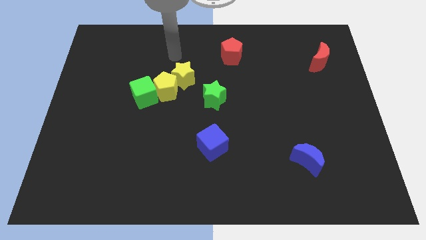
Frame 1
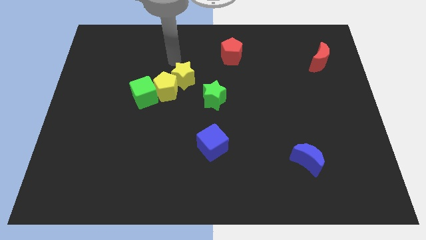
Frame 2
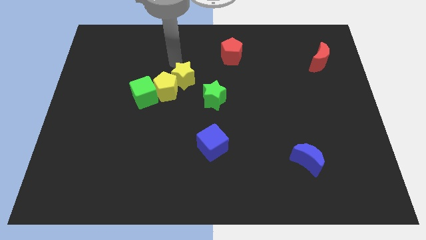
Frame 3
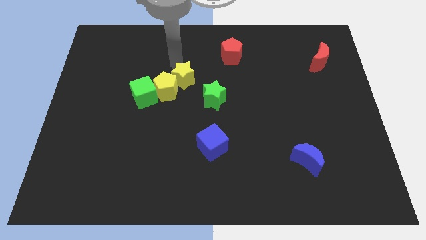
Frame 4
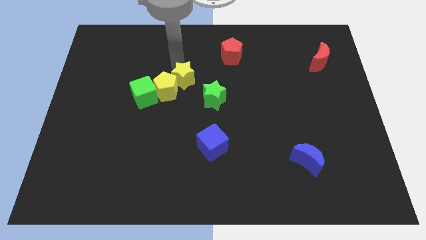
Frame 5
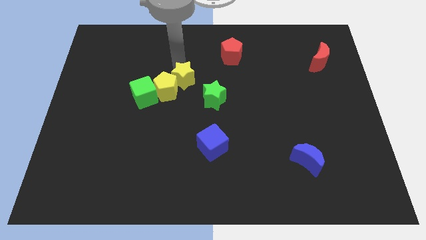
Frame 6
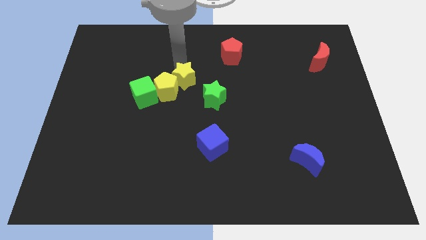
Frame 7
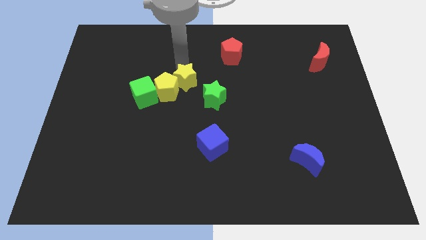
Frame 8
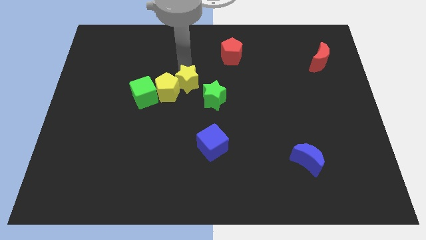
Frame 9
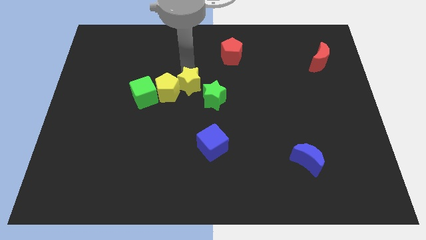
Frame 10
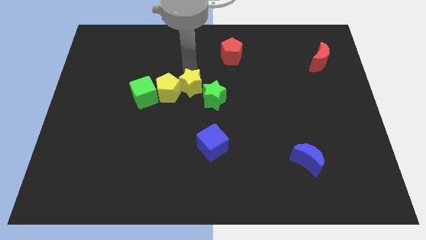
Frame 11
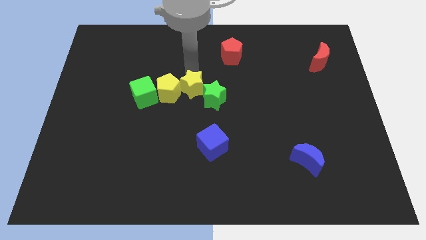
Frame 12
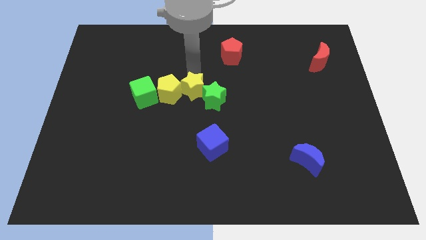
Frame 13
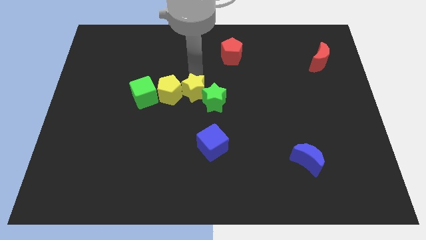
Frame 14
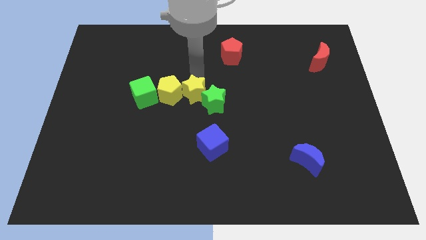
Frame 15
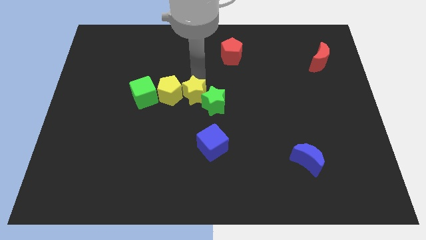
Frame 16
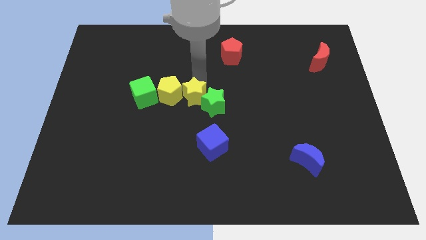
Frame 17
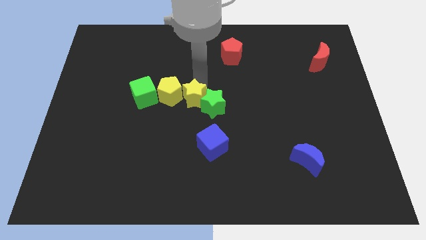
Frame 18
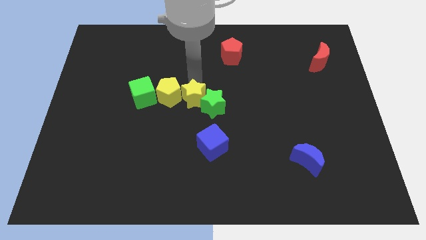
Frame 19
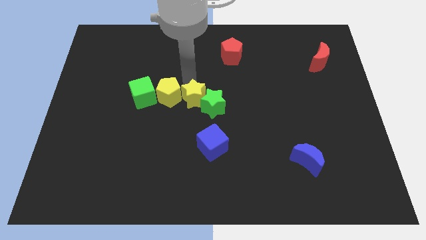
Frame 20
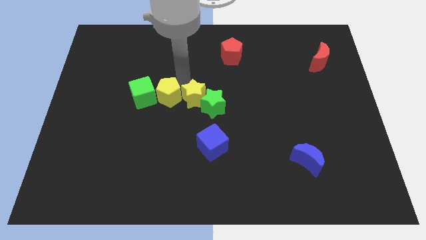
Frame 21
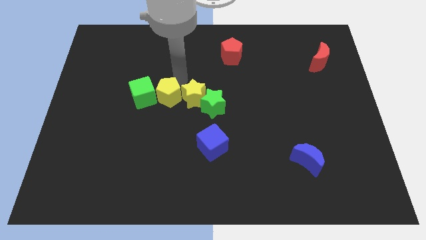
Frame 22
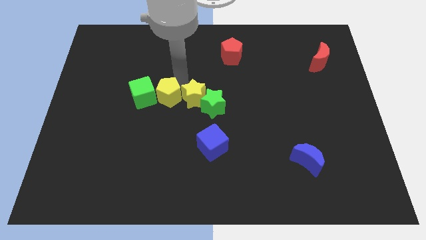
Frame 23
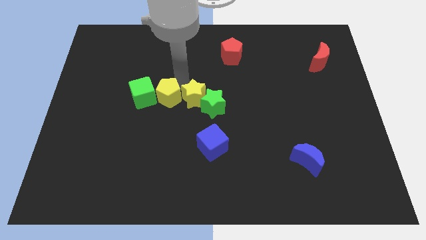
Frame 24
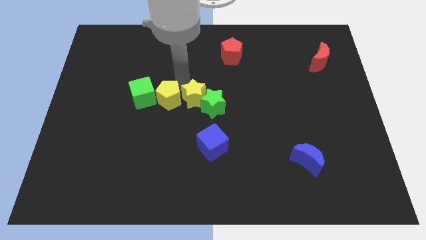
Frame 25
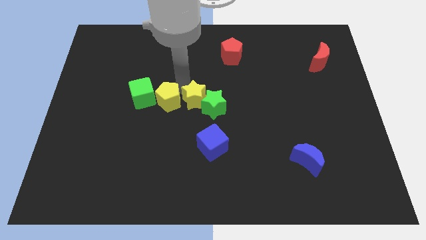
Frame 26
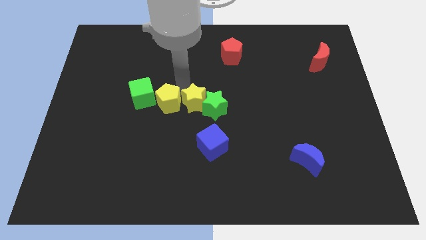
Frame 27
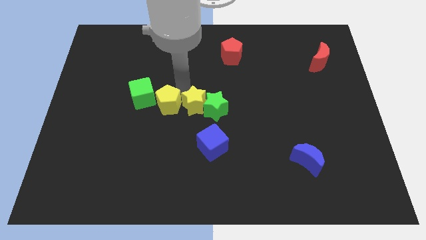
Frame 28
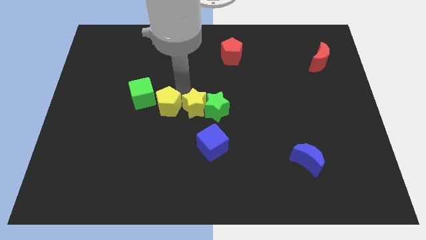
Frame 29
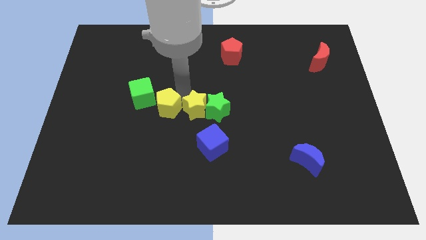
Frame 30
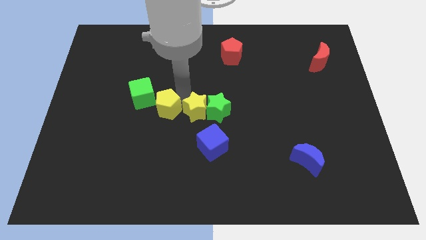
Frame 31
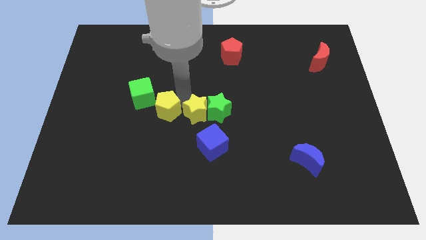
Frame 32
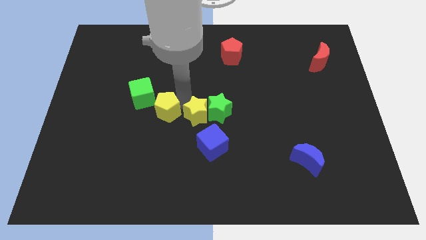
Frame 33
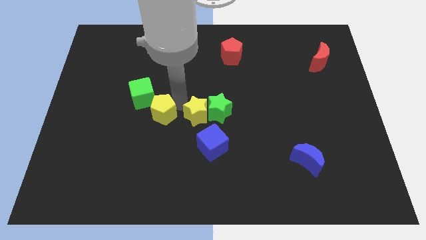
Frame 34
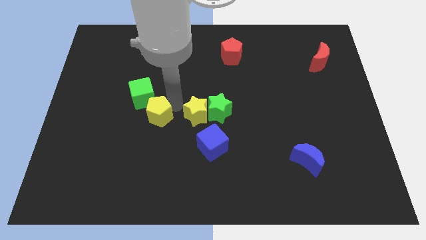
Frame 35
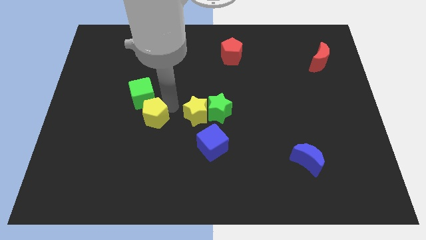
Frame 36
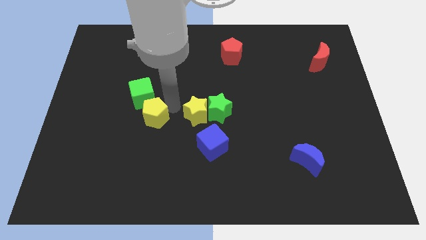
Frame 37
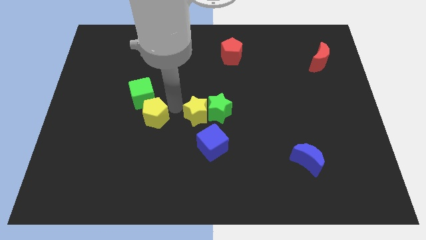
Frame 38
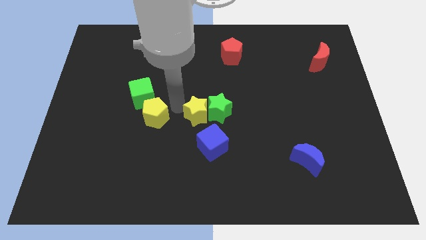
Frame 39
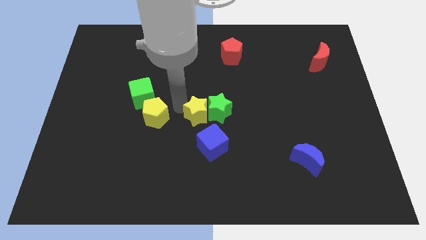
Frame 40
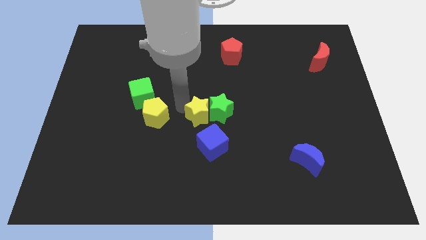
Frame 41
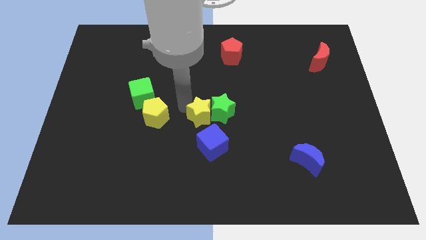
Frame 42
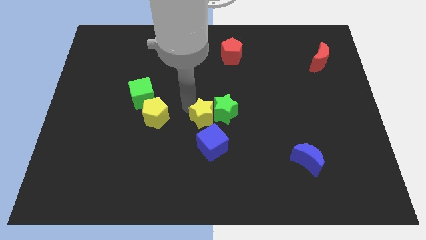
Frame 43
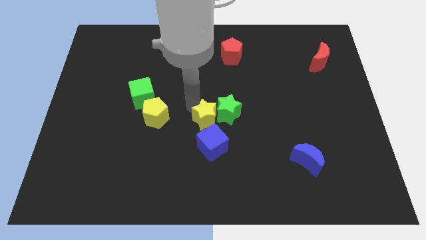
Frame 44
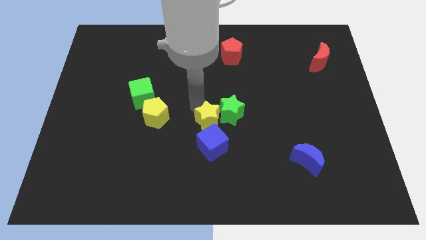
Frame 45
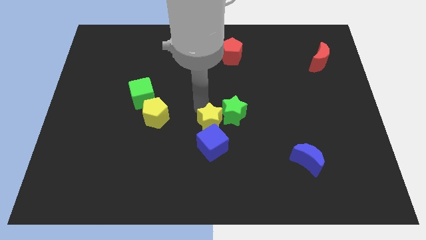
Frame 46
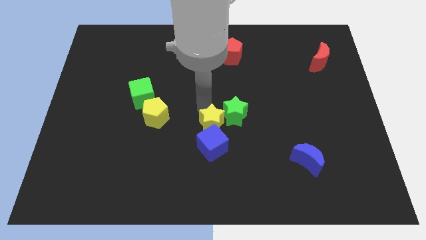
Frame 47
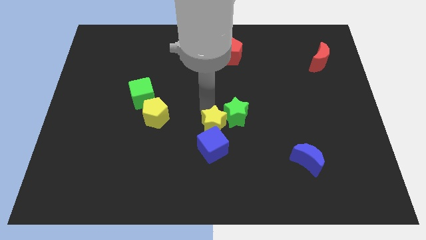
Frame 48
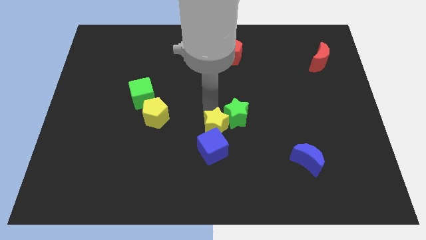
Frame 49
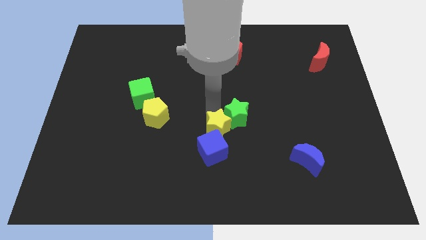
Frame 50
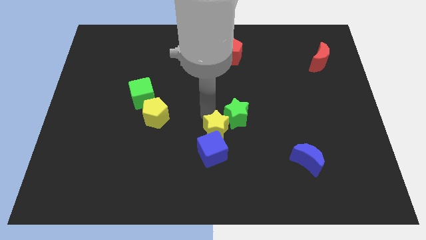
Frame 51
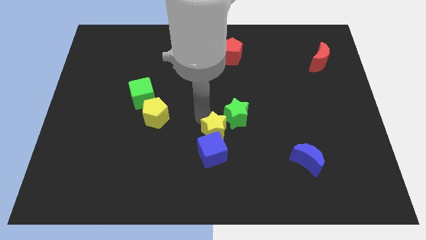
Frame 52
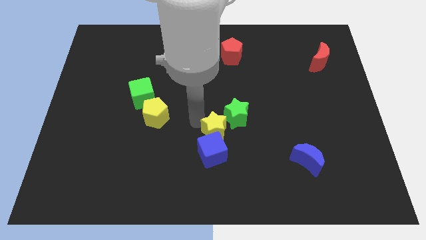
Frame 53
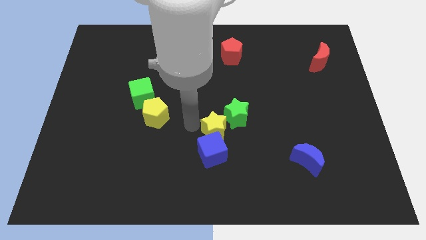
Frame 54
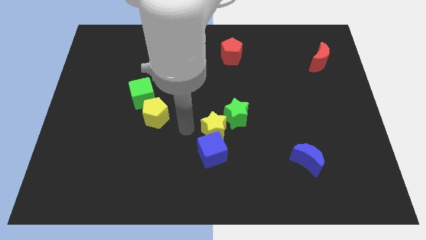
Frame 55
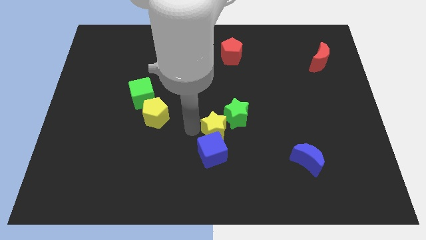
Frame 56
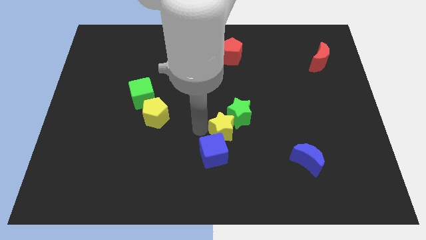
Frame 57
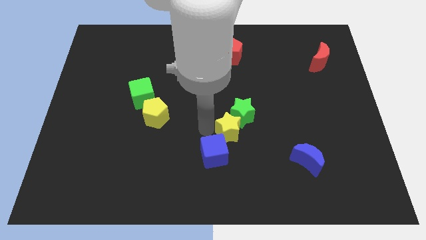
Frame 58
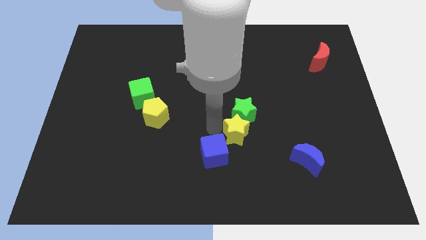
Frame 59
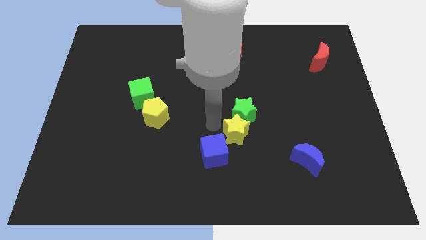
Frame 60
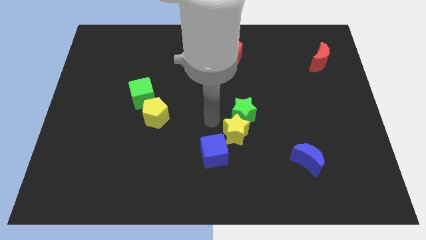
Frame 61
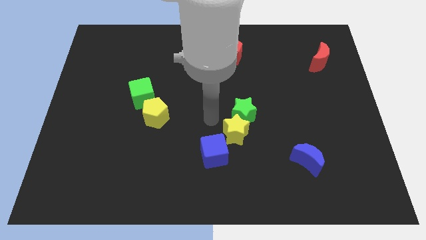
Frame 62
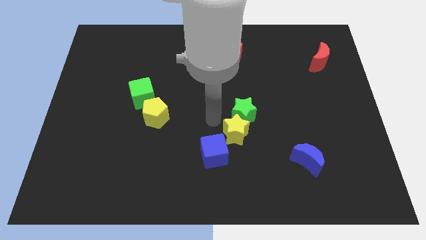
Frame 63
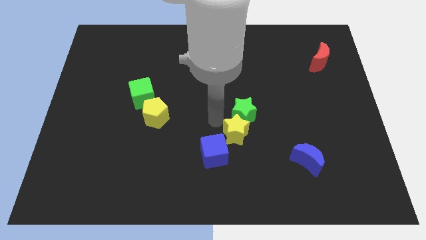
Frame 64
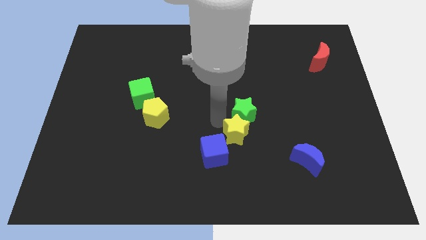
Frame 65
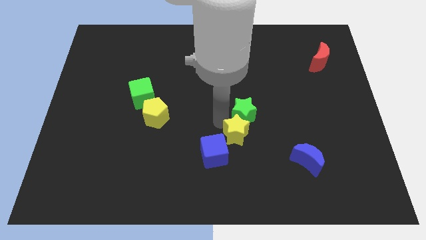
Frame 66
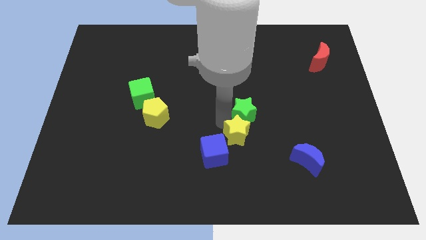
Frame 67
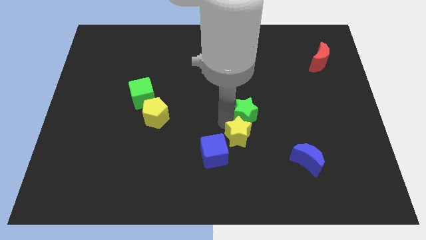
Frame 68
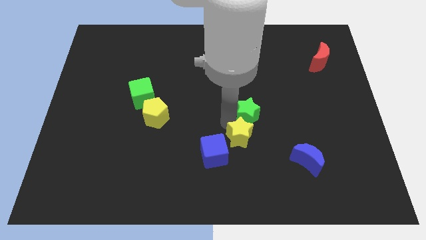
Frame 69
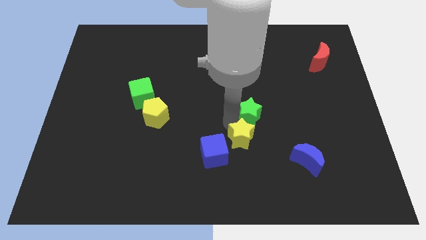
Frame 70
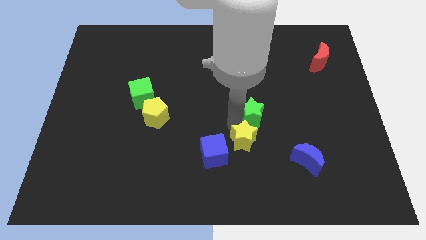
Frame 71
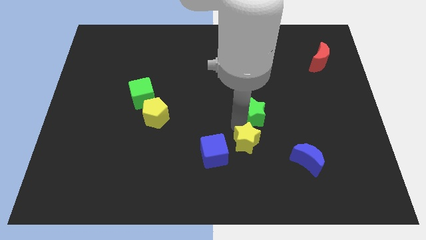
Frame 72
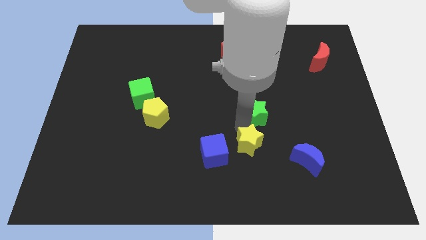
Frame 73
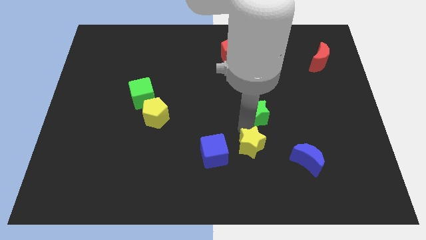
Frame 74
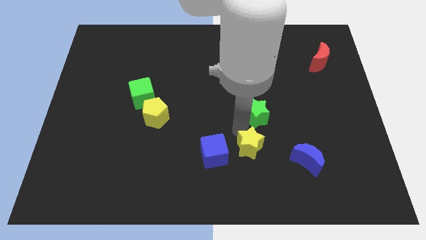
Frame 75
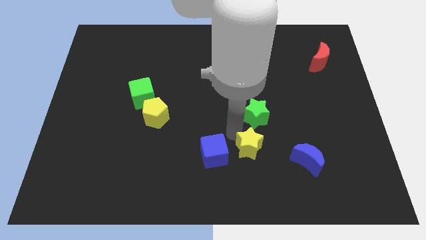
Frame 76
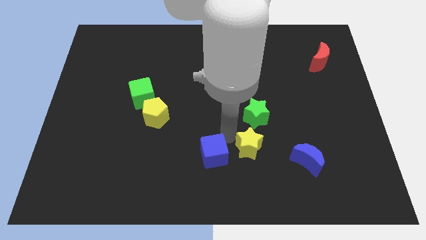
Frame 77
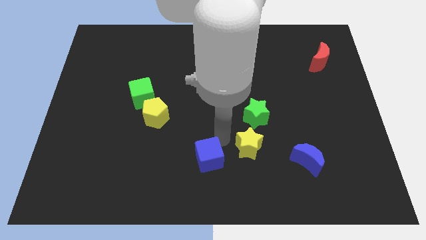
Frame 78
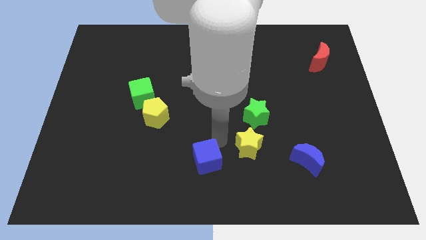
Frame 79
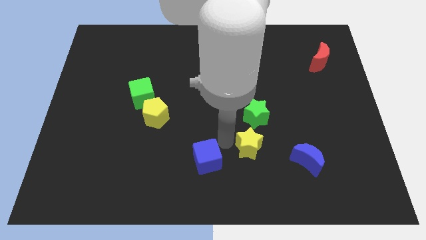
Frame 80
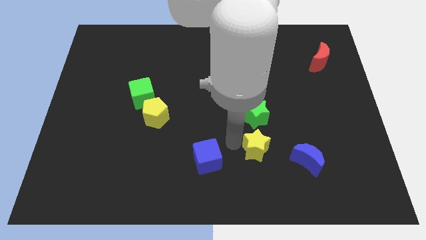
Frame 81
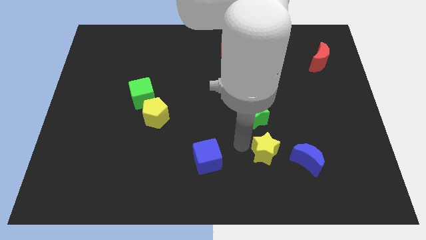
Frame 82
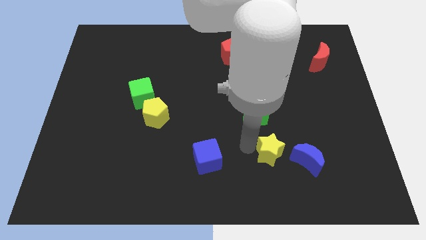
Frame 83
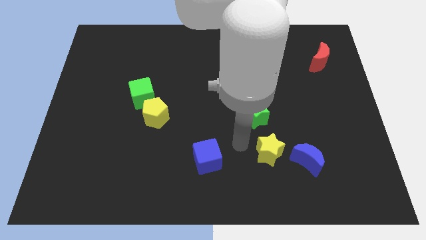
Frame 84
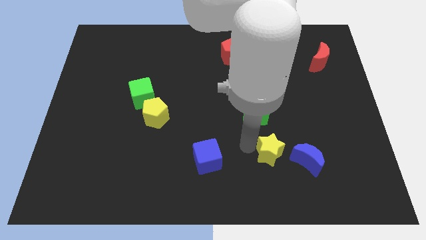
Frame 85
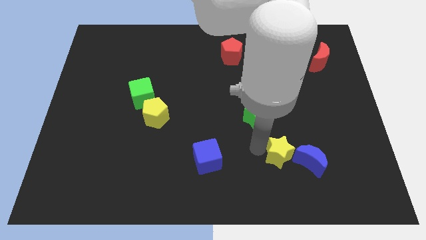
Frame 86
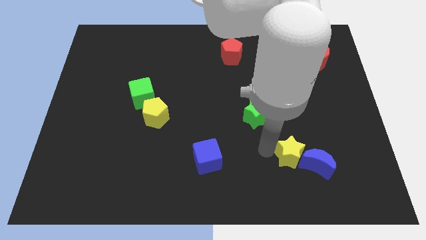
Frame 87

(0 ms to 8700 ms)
slide the yellow star towards the blue moon
